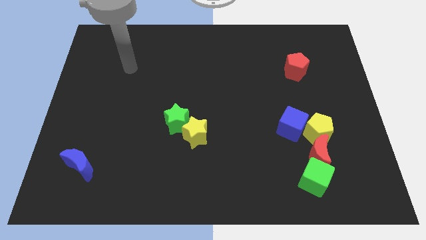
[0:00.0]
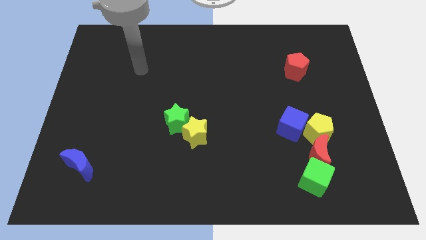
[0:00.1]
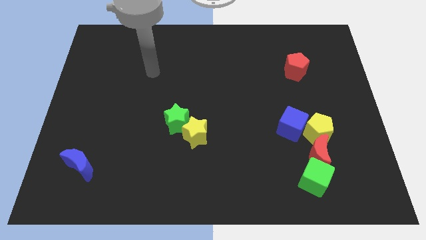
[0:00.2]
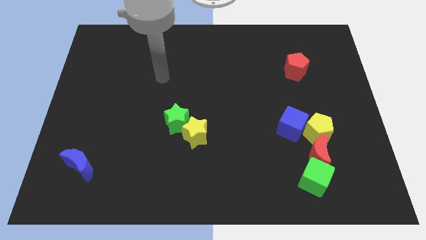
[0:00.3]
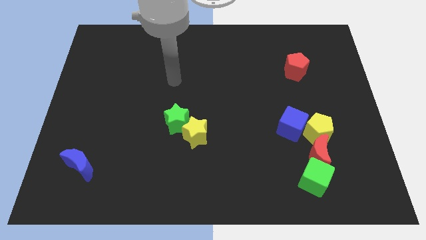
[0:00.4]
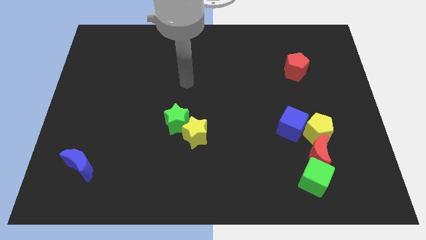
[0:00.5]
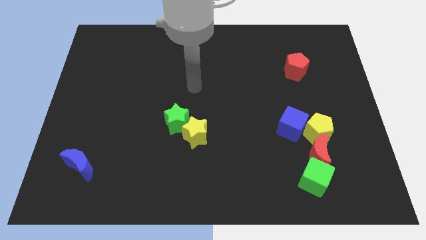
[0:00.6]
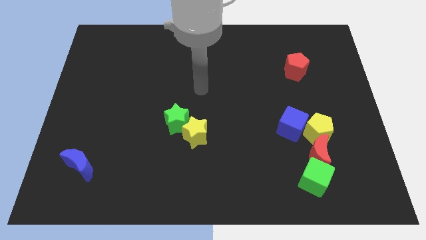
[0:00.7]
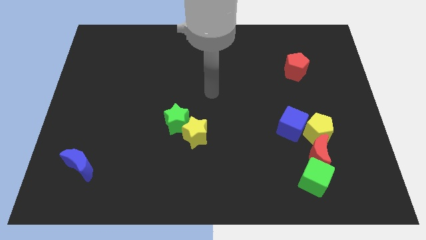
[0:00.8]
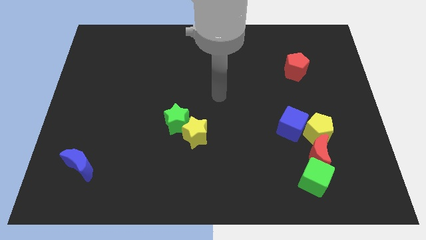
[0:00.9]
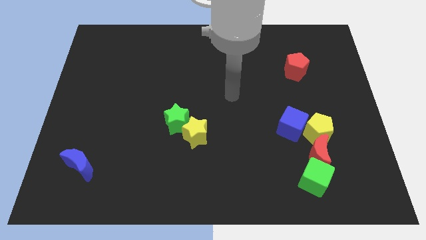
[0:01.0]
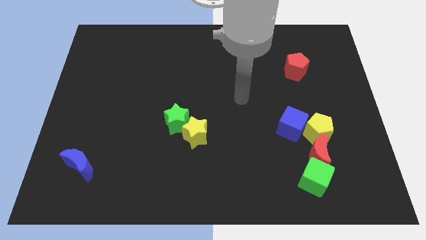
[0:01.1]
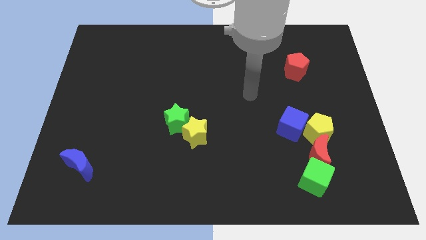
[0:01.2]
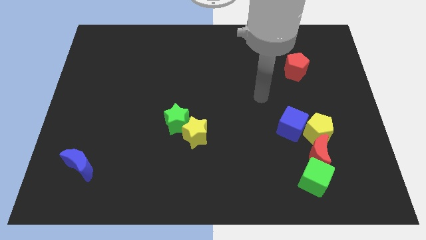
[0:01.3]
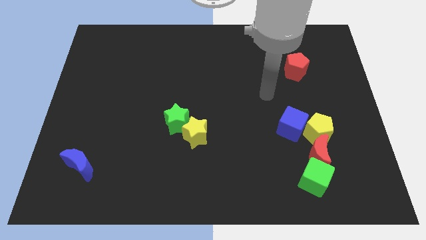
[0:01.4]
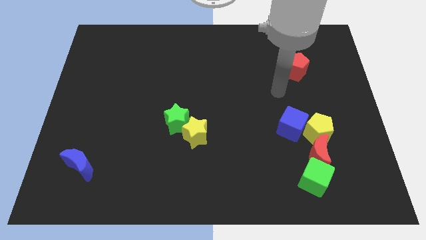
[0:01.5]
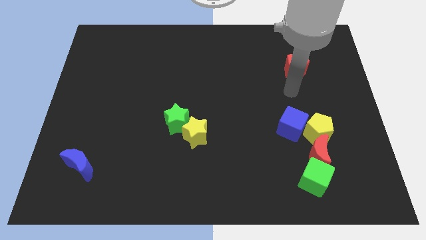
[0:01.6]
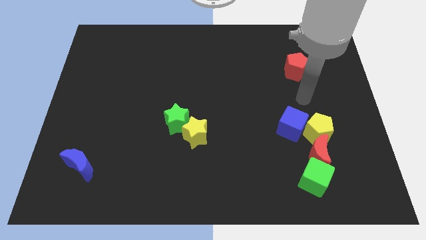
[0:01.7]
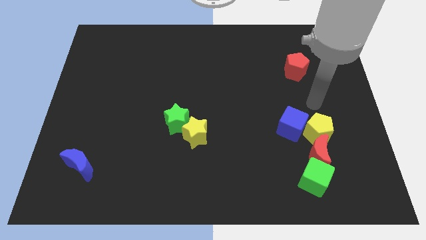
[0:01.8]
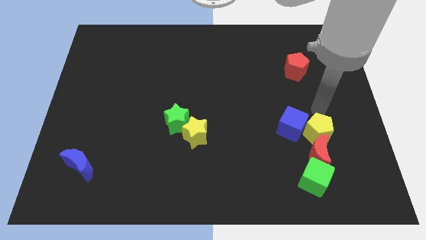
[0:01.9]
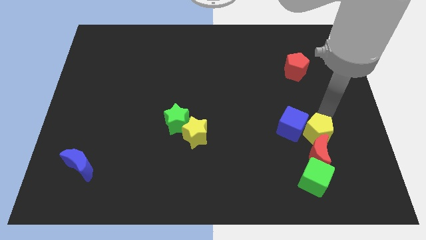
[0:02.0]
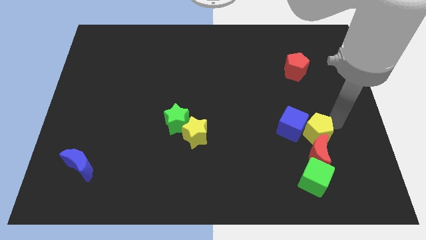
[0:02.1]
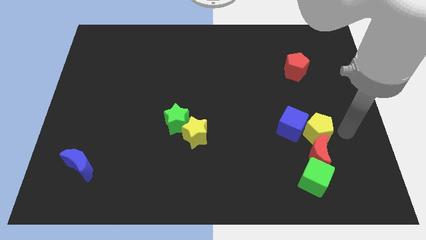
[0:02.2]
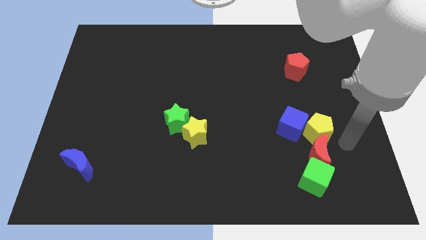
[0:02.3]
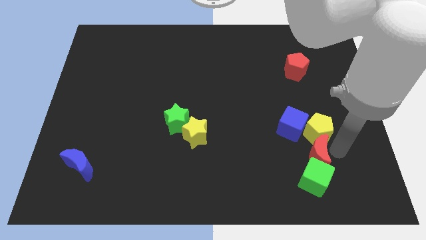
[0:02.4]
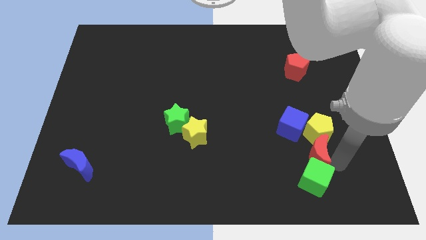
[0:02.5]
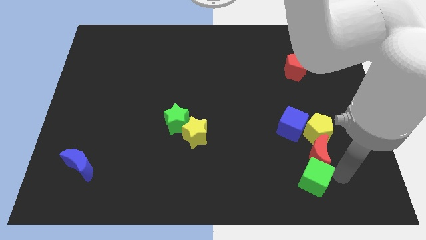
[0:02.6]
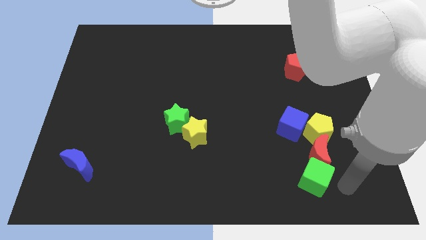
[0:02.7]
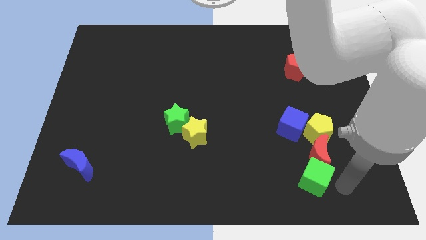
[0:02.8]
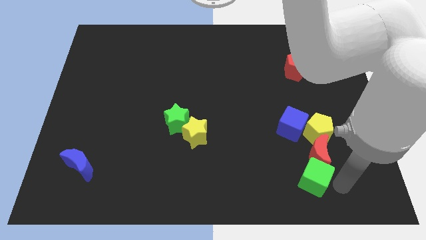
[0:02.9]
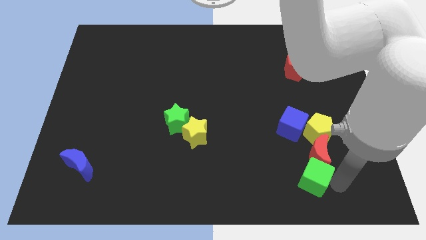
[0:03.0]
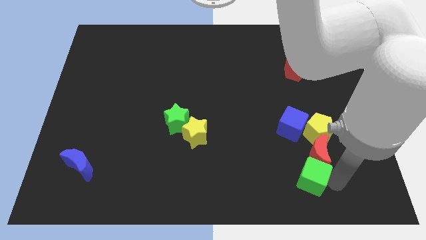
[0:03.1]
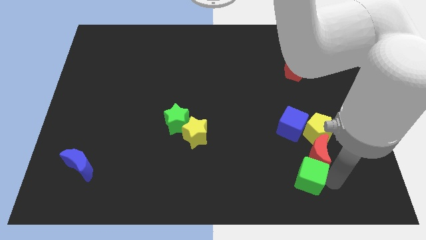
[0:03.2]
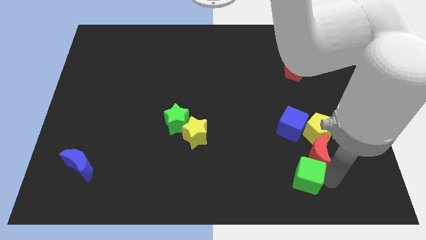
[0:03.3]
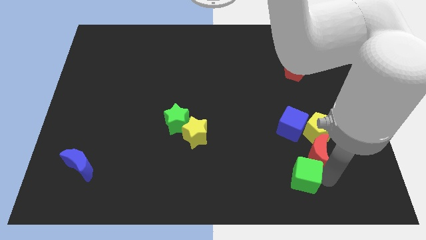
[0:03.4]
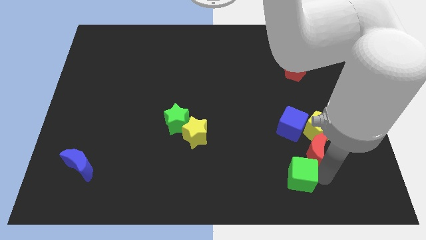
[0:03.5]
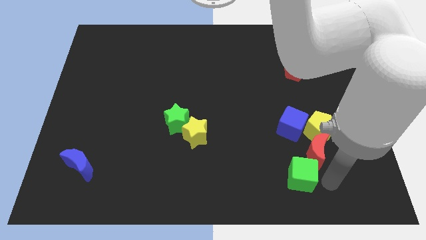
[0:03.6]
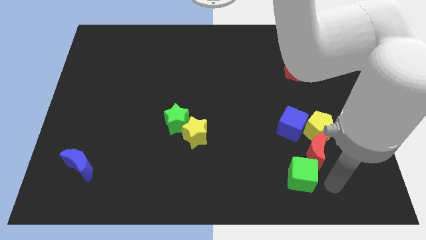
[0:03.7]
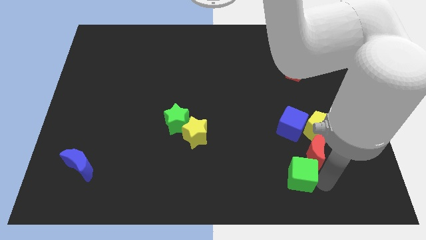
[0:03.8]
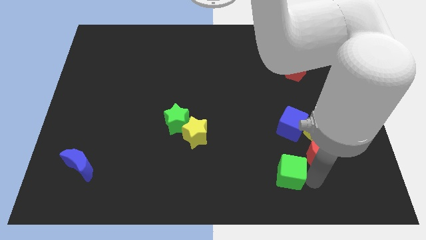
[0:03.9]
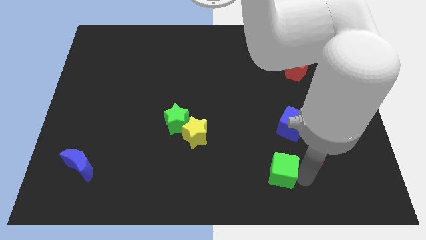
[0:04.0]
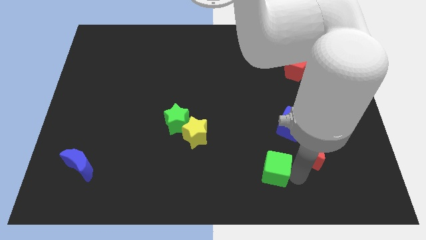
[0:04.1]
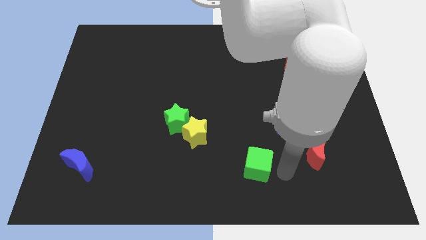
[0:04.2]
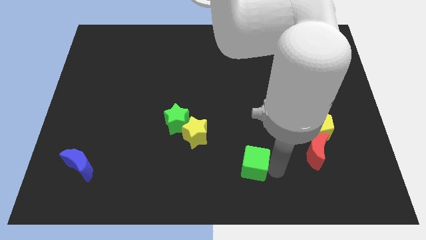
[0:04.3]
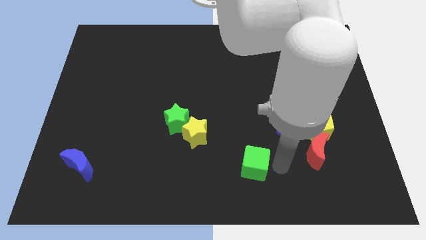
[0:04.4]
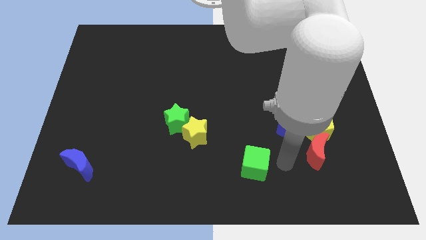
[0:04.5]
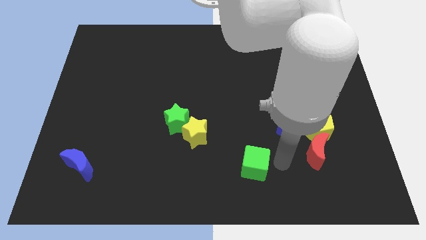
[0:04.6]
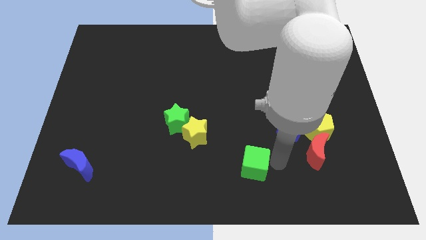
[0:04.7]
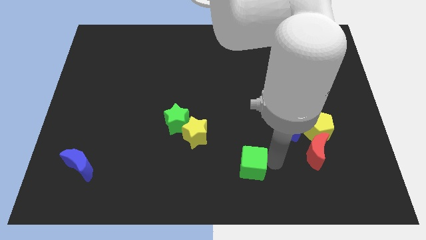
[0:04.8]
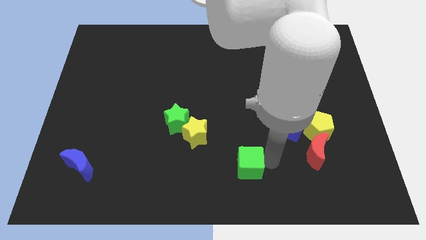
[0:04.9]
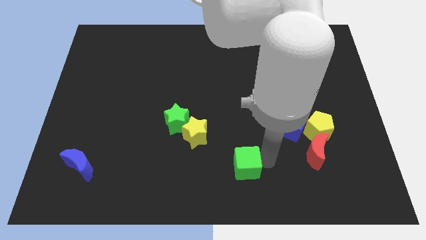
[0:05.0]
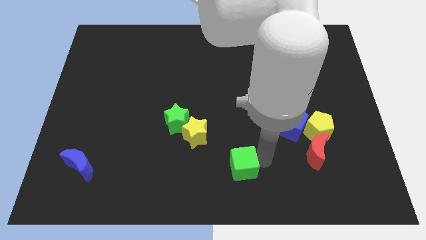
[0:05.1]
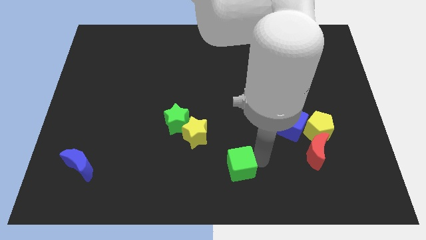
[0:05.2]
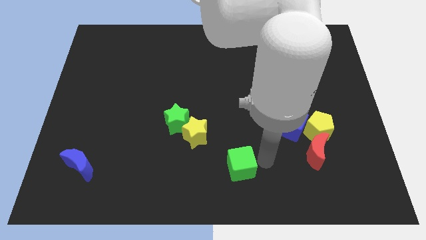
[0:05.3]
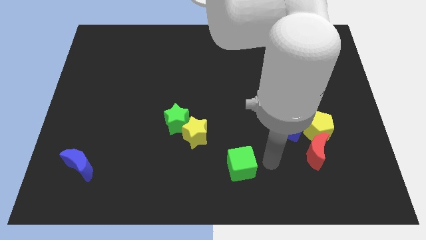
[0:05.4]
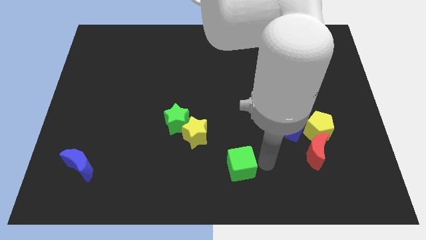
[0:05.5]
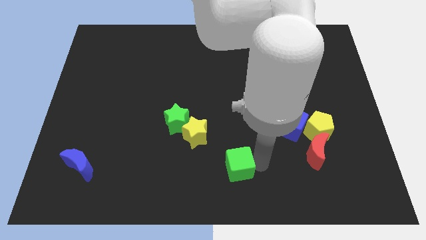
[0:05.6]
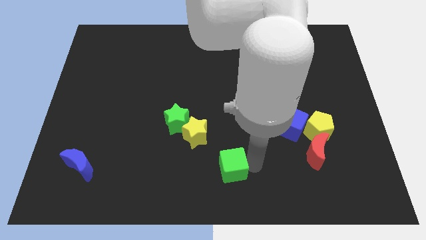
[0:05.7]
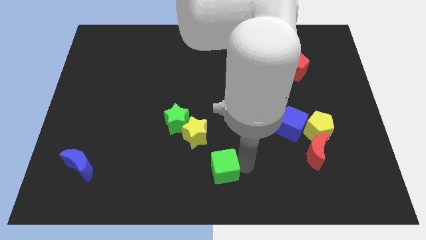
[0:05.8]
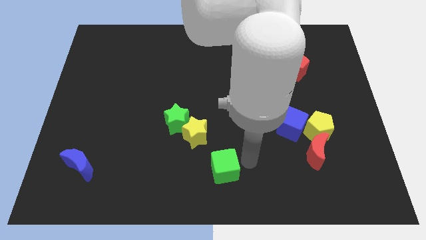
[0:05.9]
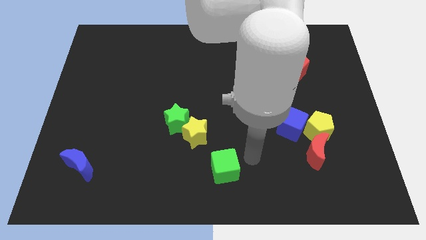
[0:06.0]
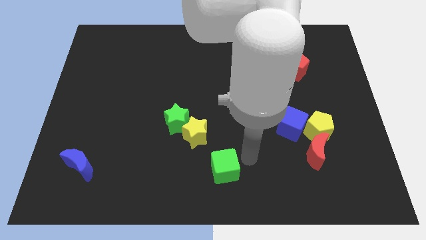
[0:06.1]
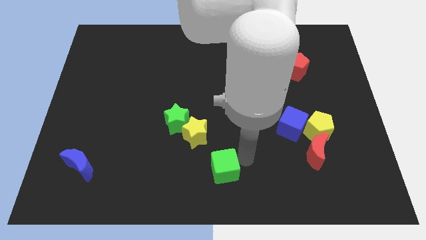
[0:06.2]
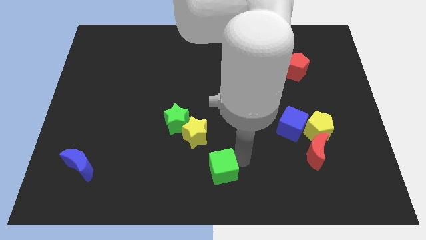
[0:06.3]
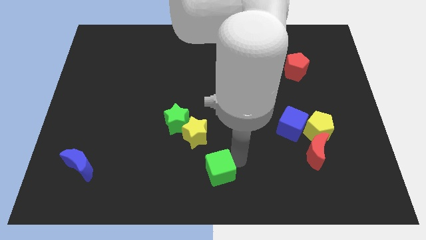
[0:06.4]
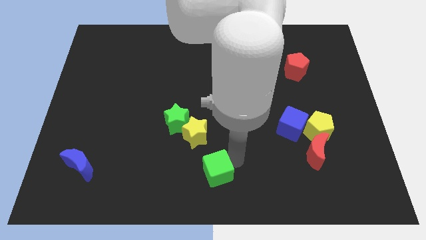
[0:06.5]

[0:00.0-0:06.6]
move the green cube to the left

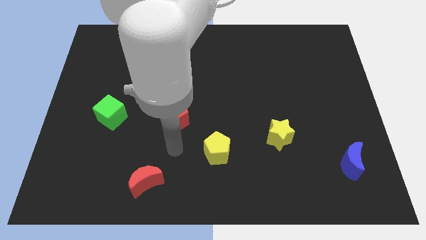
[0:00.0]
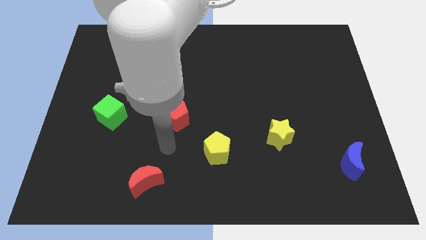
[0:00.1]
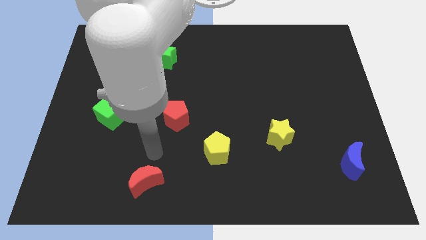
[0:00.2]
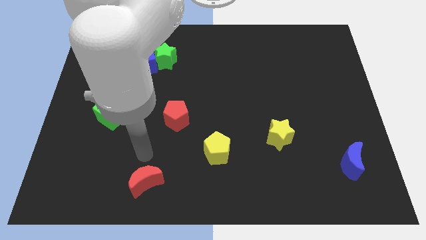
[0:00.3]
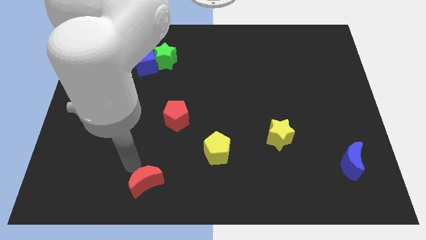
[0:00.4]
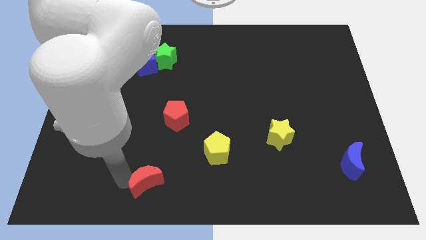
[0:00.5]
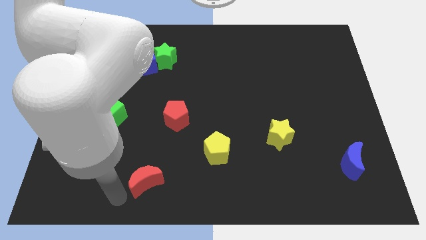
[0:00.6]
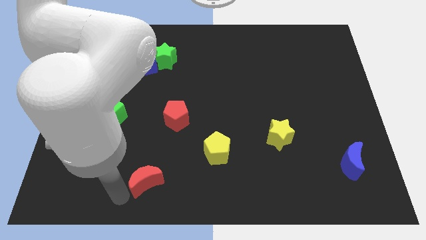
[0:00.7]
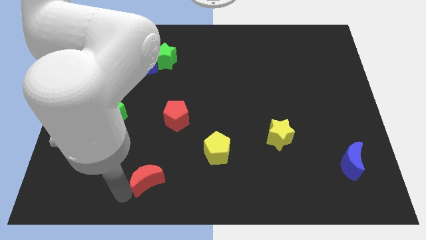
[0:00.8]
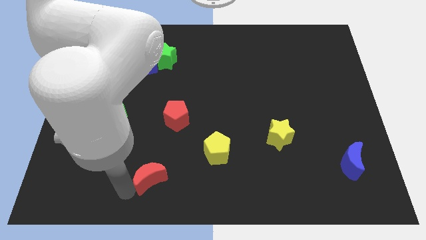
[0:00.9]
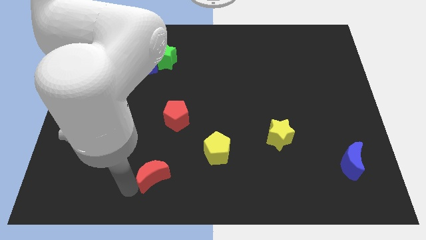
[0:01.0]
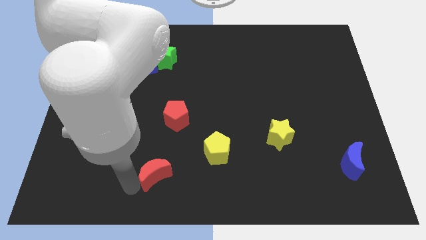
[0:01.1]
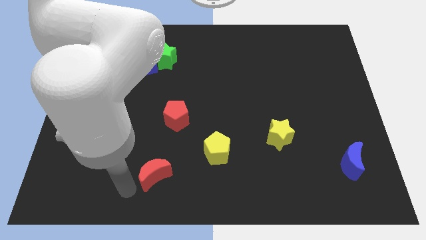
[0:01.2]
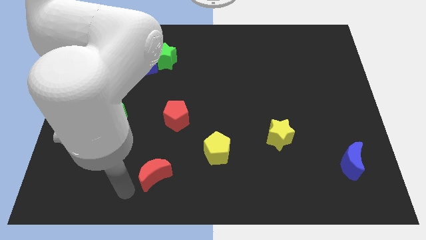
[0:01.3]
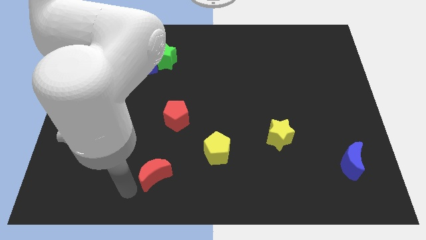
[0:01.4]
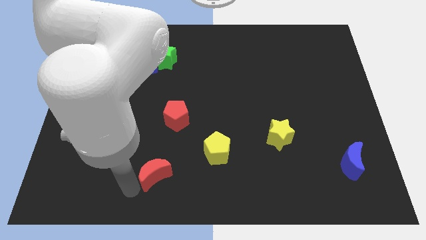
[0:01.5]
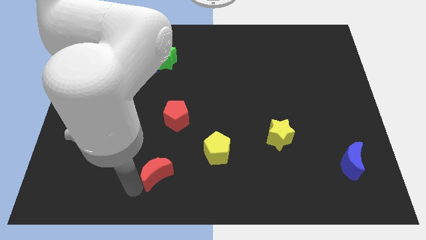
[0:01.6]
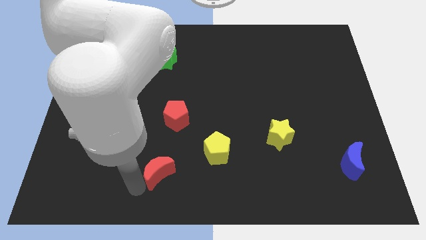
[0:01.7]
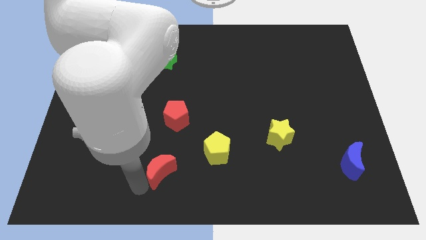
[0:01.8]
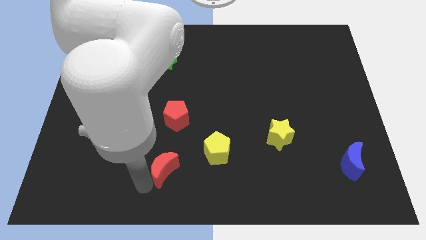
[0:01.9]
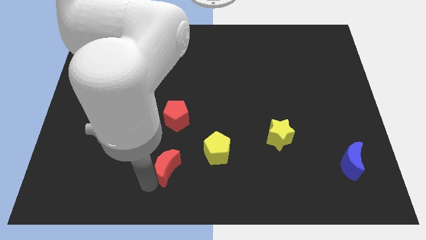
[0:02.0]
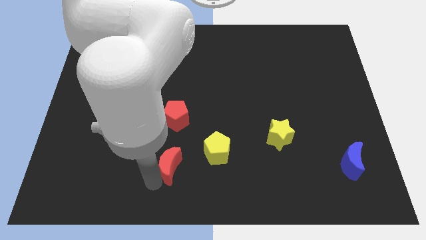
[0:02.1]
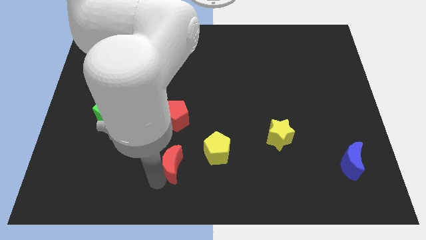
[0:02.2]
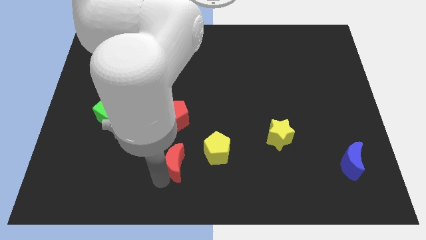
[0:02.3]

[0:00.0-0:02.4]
push the red moon a little bit diagonally upwards and right
